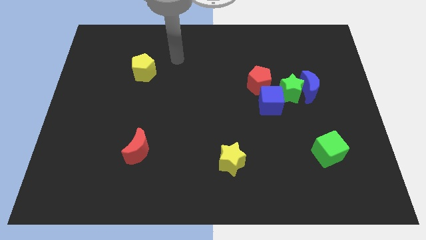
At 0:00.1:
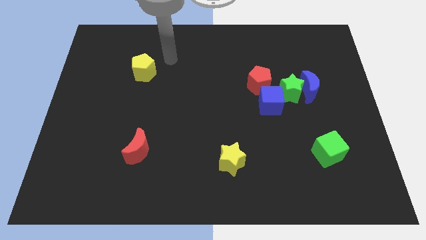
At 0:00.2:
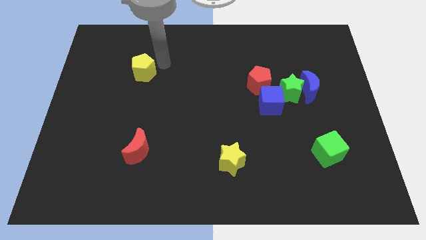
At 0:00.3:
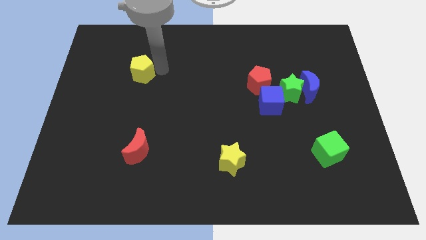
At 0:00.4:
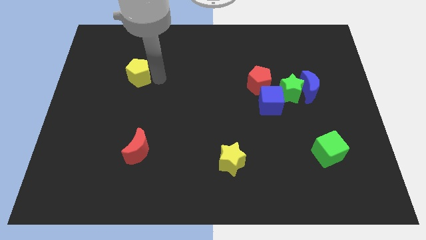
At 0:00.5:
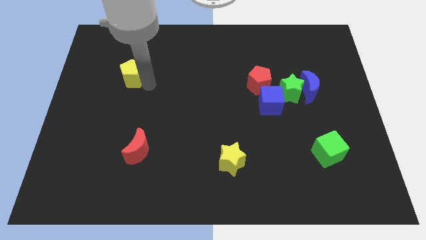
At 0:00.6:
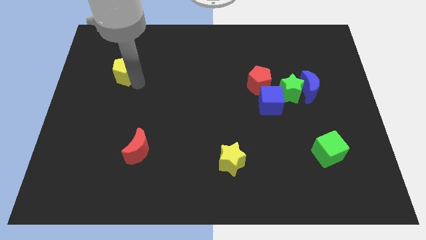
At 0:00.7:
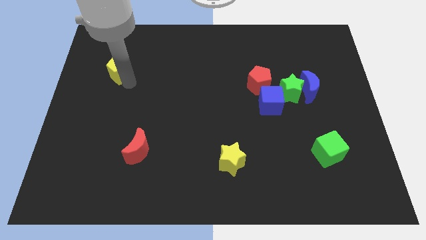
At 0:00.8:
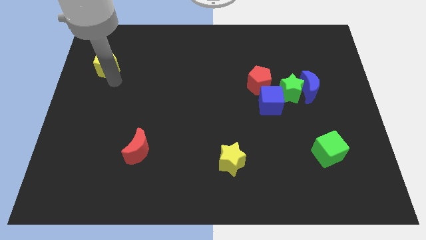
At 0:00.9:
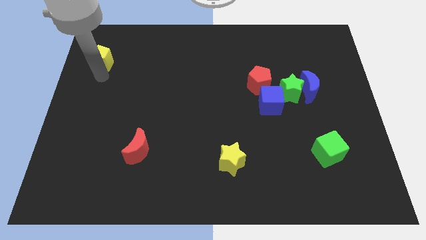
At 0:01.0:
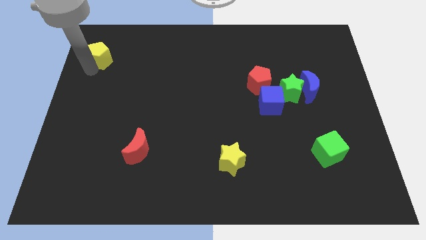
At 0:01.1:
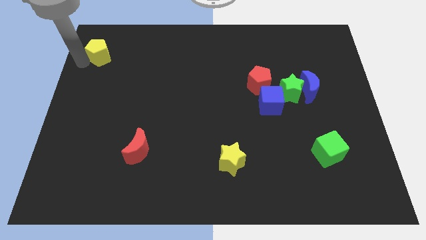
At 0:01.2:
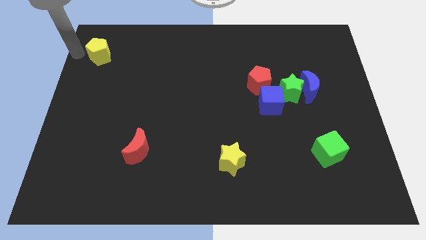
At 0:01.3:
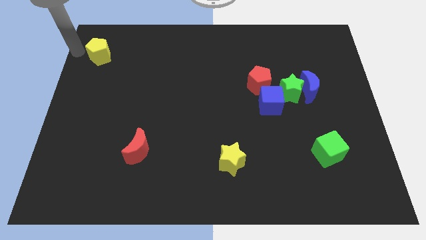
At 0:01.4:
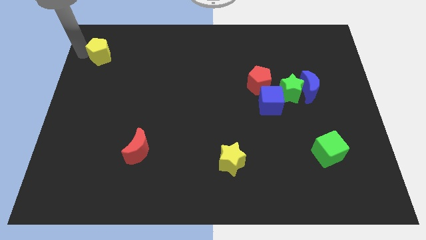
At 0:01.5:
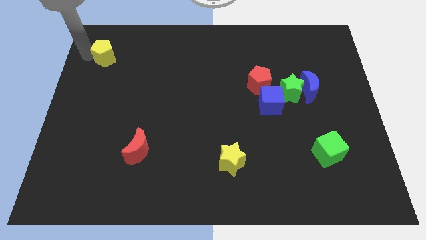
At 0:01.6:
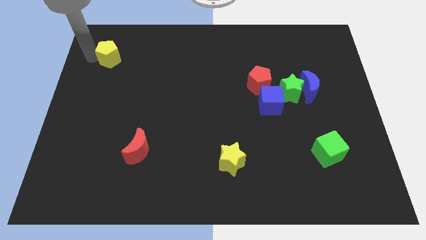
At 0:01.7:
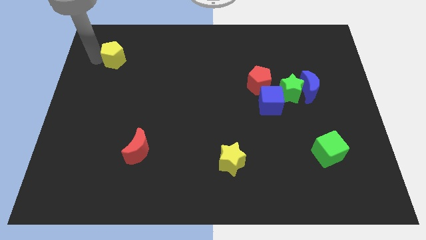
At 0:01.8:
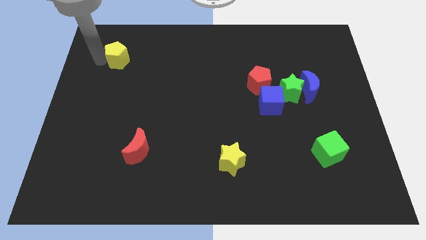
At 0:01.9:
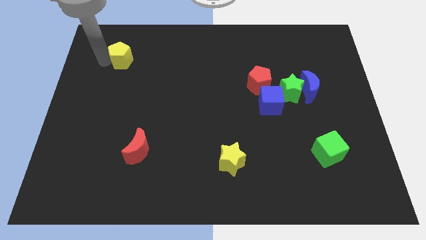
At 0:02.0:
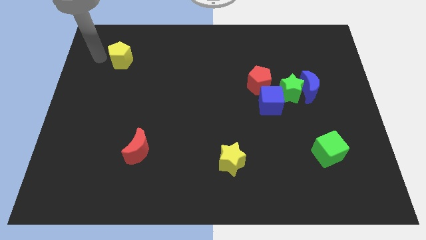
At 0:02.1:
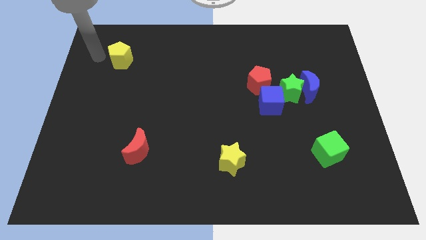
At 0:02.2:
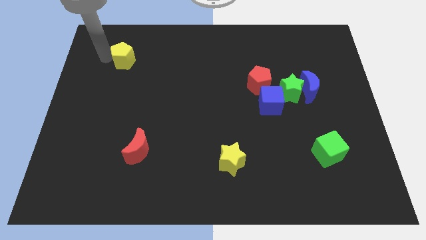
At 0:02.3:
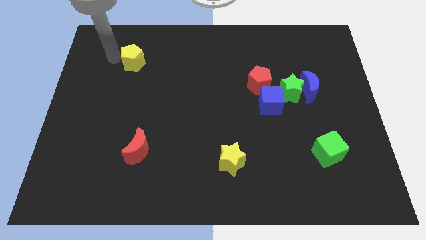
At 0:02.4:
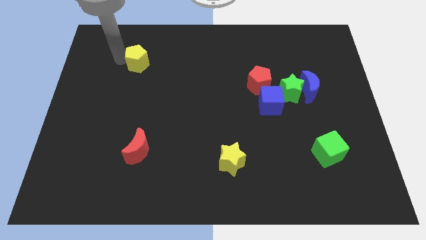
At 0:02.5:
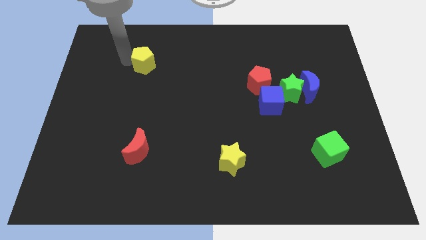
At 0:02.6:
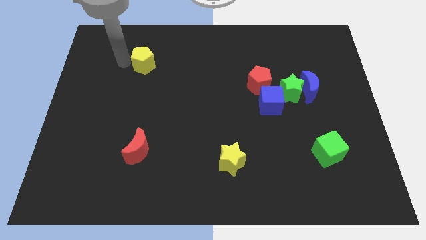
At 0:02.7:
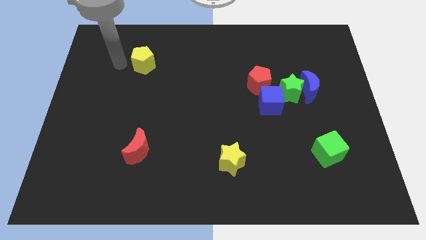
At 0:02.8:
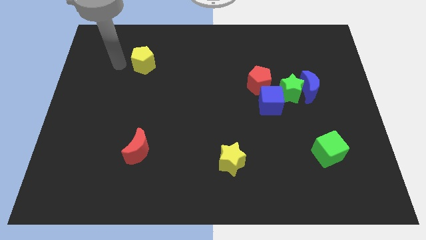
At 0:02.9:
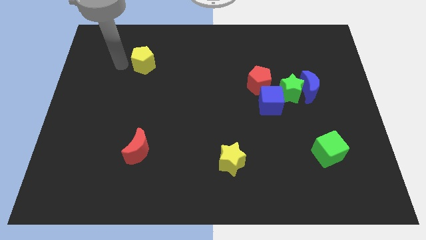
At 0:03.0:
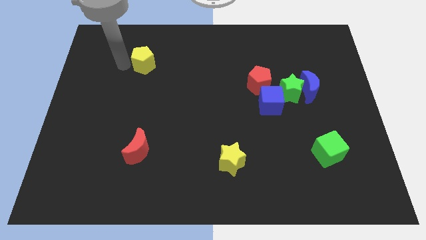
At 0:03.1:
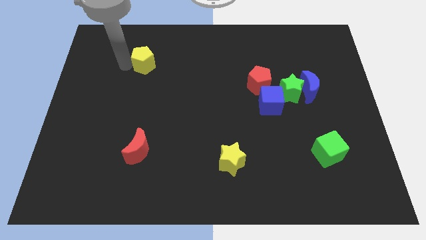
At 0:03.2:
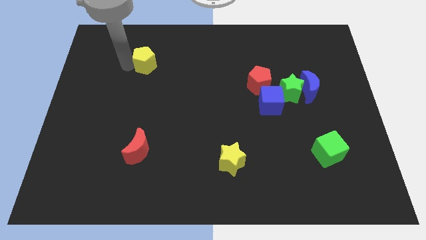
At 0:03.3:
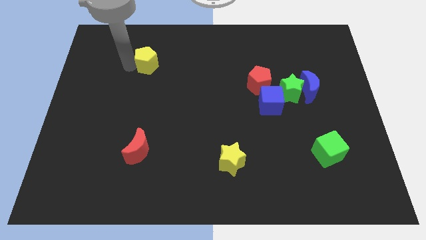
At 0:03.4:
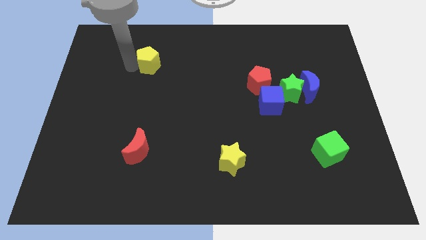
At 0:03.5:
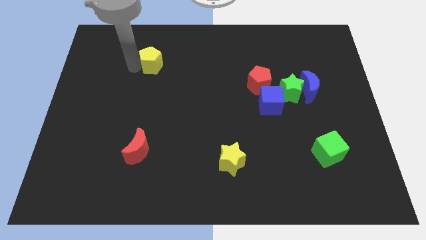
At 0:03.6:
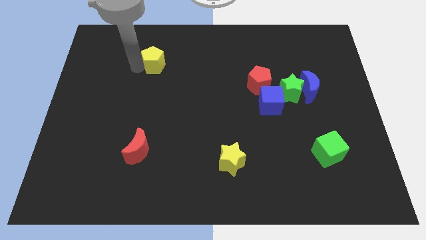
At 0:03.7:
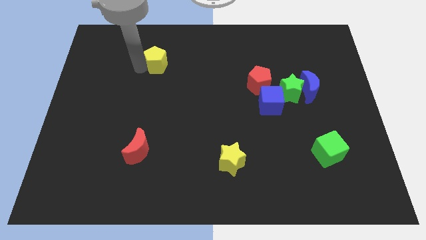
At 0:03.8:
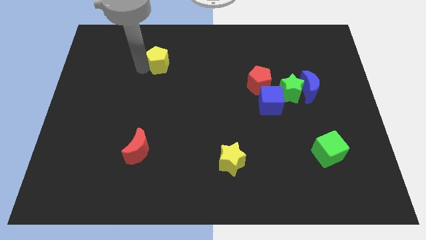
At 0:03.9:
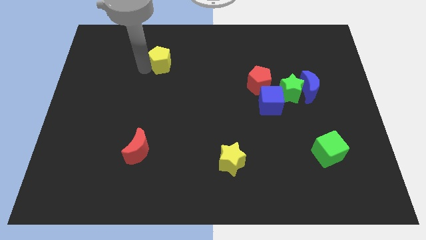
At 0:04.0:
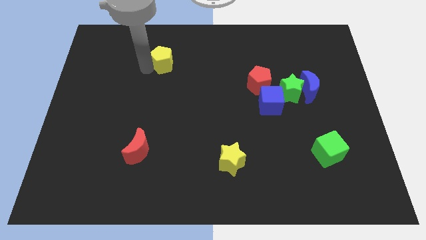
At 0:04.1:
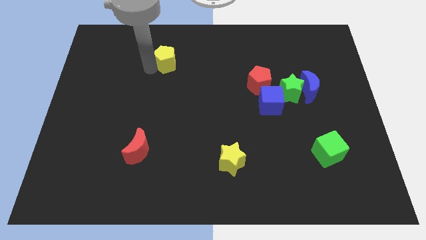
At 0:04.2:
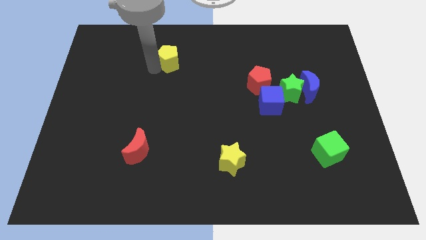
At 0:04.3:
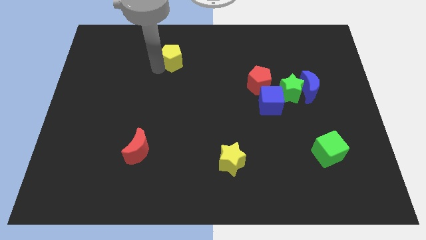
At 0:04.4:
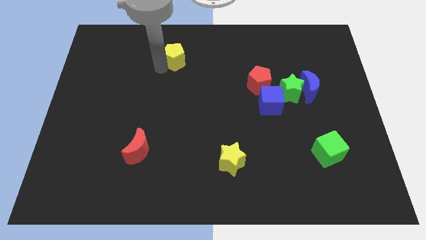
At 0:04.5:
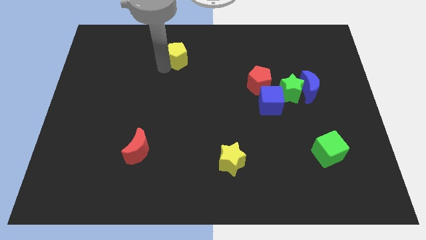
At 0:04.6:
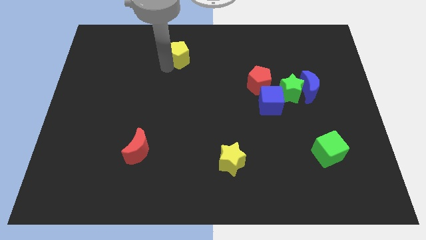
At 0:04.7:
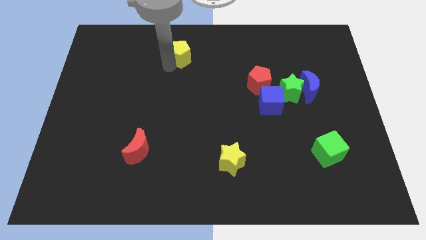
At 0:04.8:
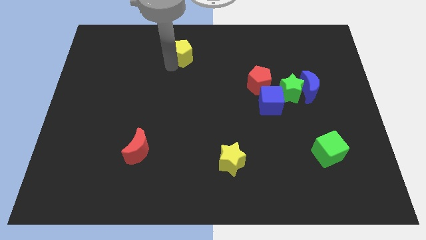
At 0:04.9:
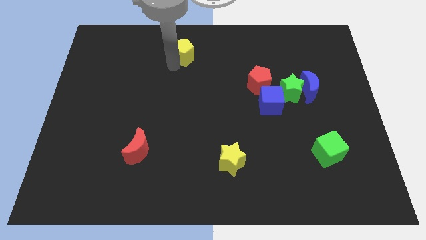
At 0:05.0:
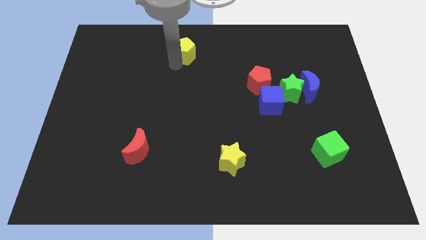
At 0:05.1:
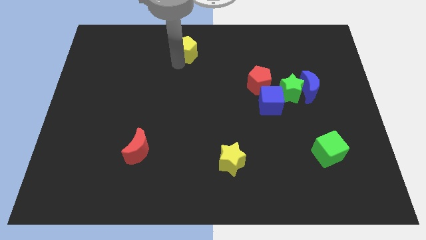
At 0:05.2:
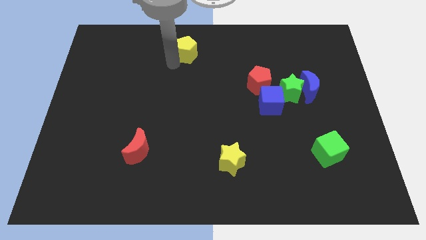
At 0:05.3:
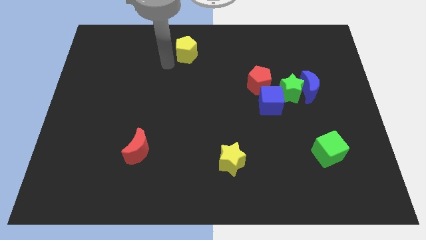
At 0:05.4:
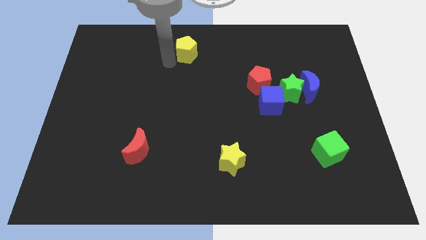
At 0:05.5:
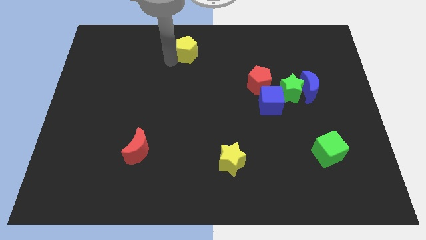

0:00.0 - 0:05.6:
move the yellow pentagon to the top

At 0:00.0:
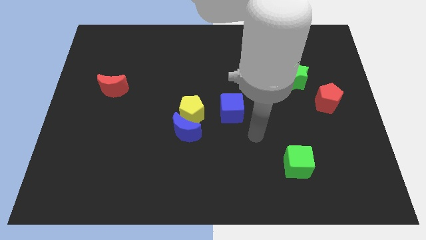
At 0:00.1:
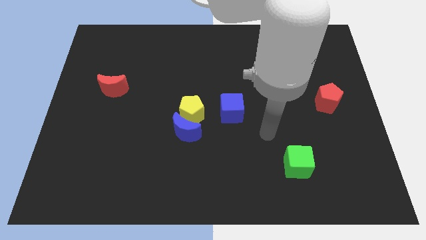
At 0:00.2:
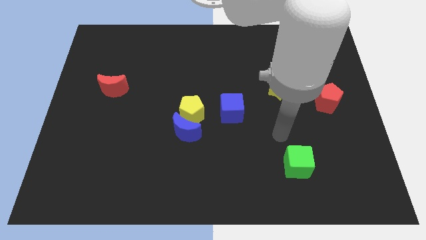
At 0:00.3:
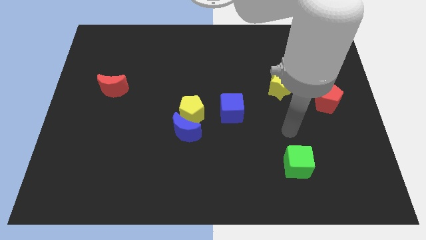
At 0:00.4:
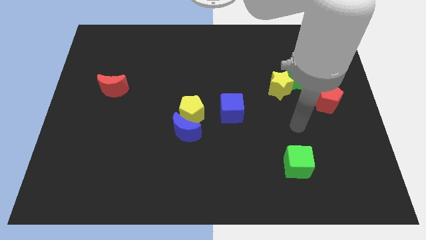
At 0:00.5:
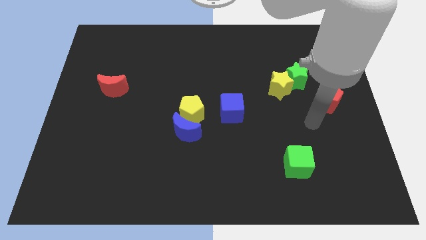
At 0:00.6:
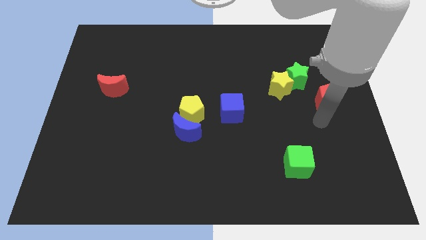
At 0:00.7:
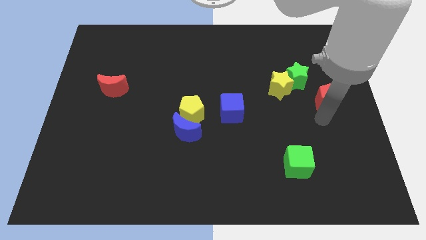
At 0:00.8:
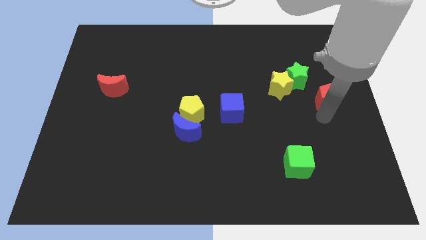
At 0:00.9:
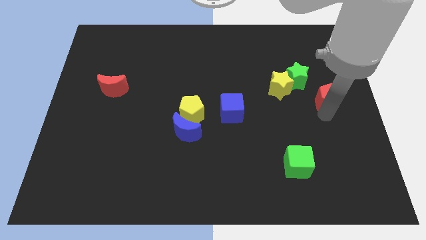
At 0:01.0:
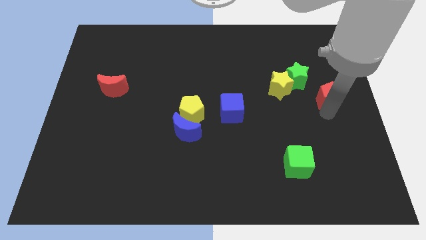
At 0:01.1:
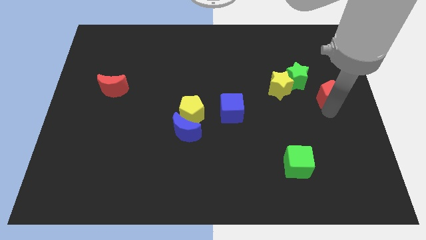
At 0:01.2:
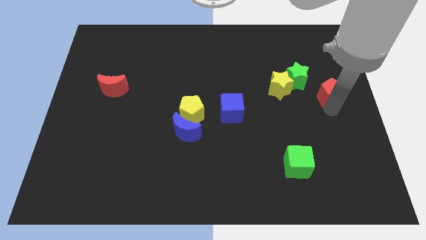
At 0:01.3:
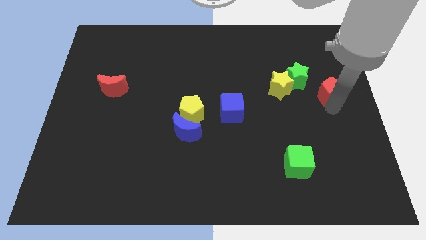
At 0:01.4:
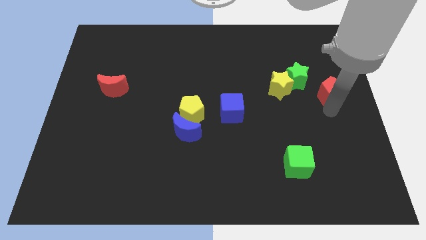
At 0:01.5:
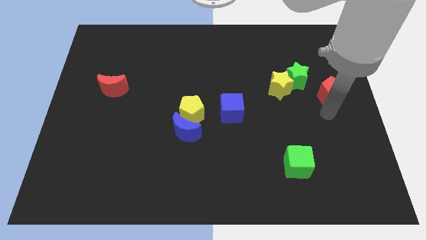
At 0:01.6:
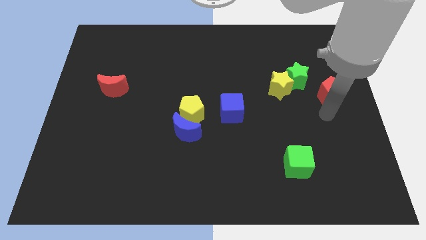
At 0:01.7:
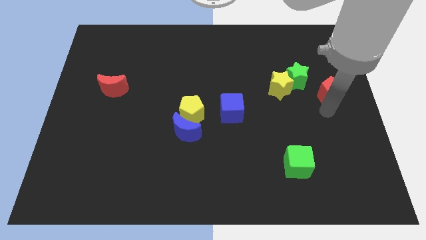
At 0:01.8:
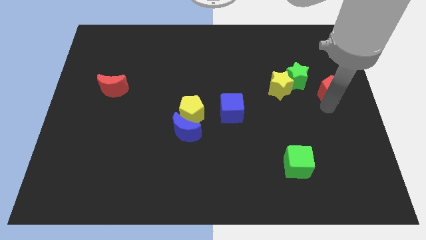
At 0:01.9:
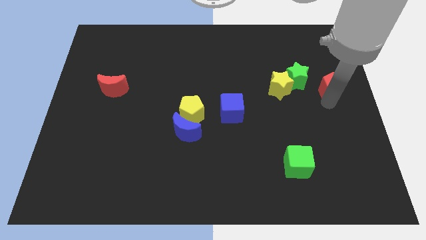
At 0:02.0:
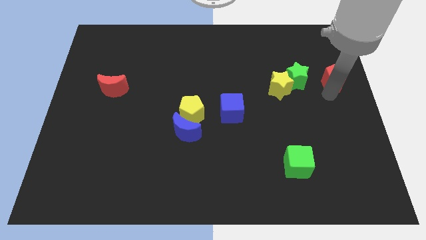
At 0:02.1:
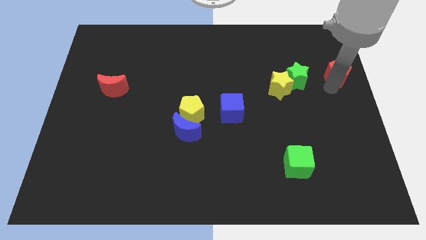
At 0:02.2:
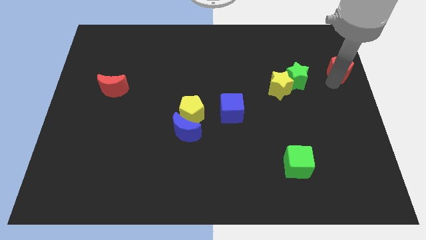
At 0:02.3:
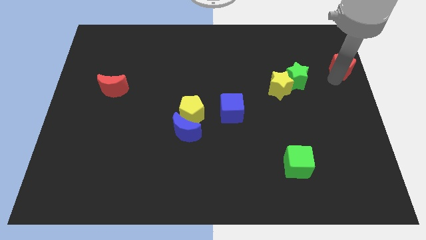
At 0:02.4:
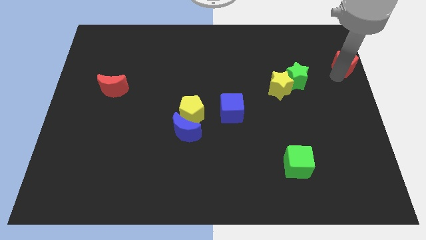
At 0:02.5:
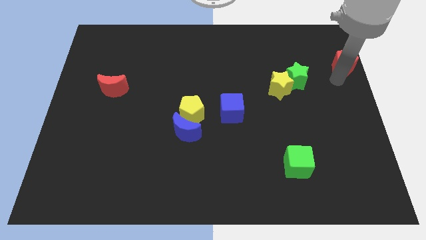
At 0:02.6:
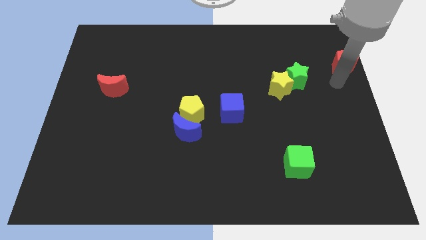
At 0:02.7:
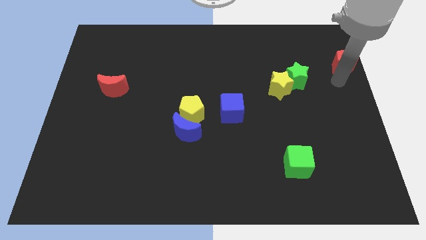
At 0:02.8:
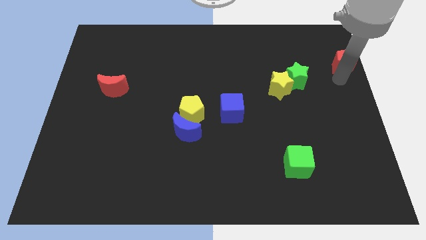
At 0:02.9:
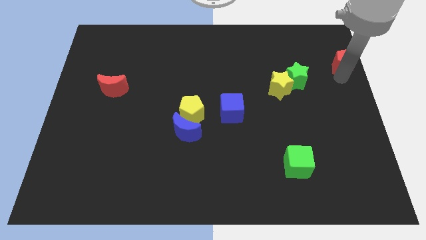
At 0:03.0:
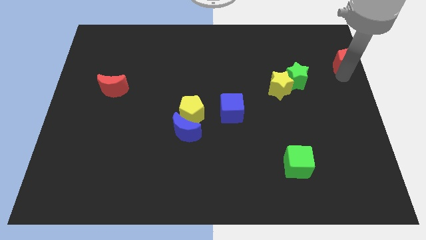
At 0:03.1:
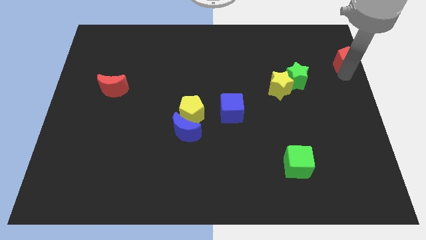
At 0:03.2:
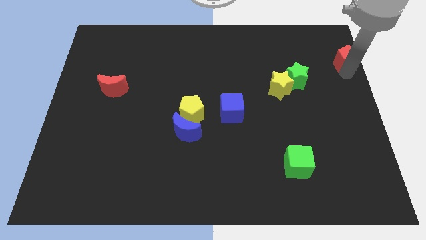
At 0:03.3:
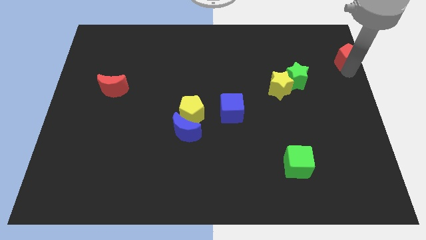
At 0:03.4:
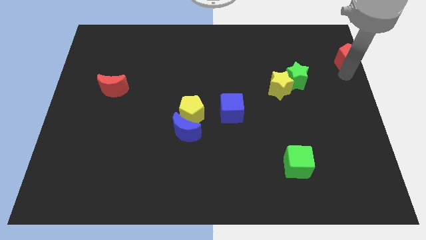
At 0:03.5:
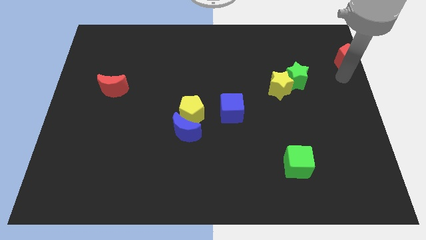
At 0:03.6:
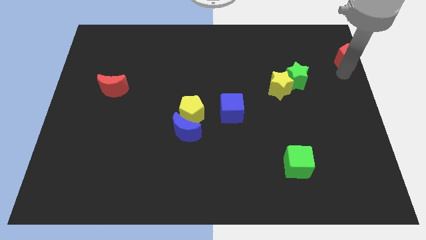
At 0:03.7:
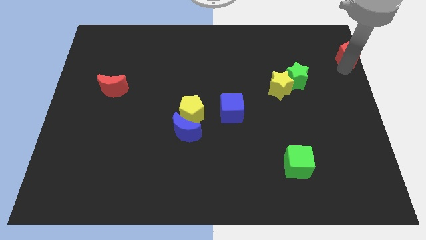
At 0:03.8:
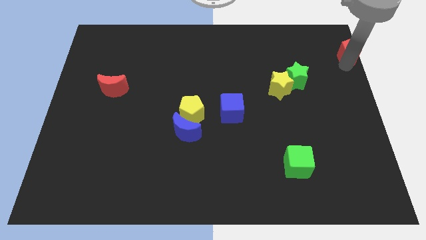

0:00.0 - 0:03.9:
move the red pentagon to the upper right corner
